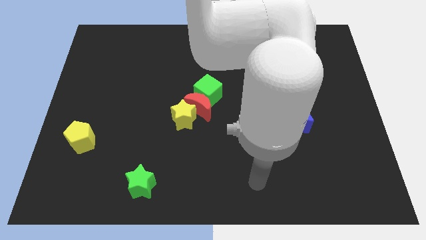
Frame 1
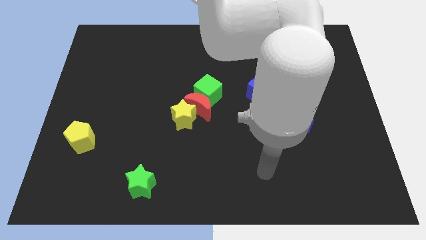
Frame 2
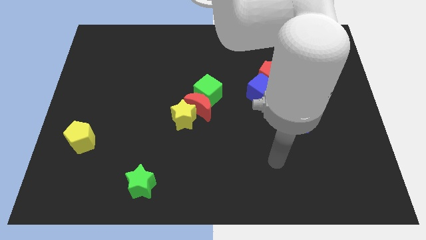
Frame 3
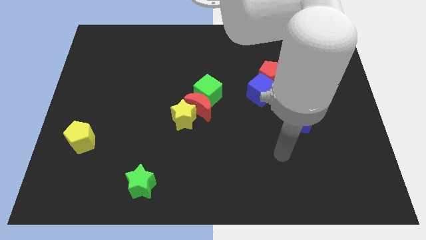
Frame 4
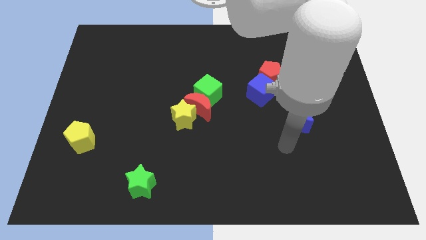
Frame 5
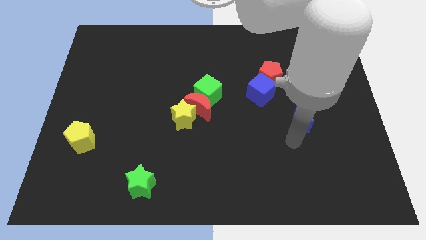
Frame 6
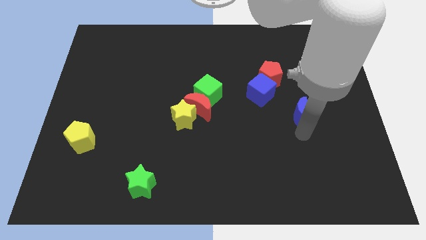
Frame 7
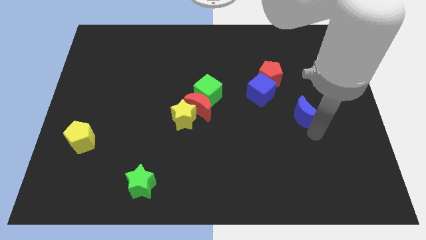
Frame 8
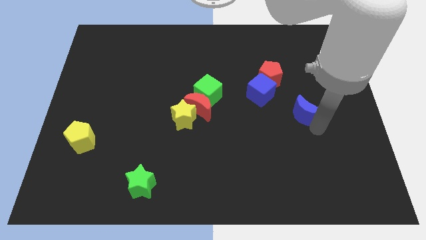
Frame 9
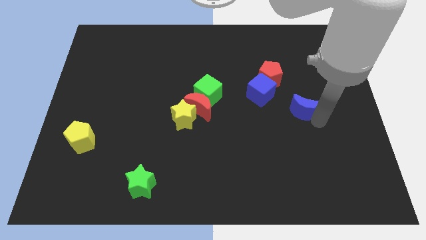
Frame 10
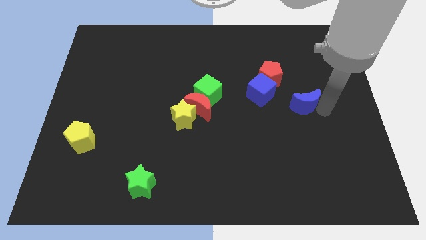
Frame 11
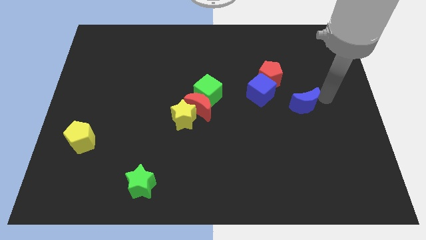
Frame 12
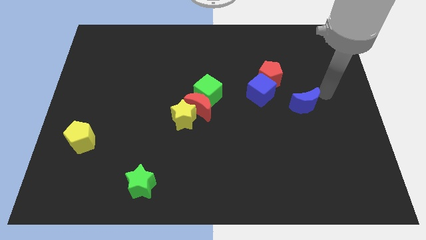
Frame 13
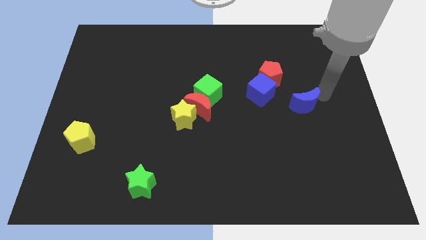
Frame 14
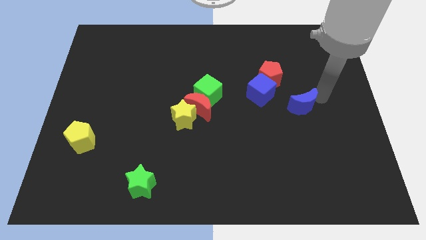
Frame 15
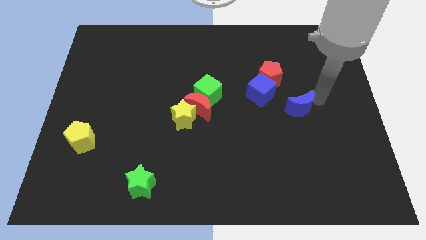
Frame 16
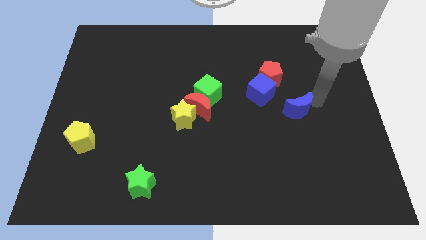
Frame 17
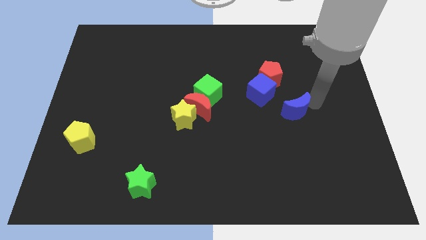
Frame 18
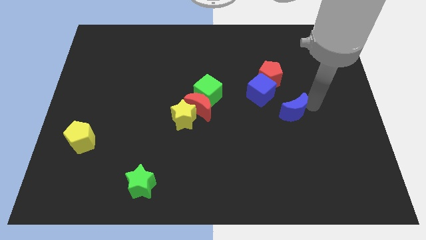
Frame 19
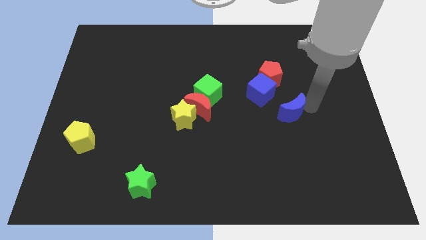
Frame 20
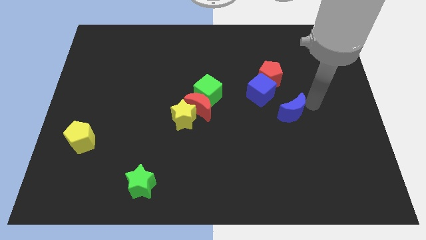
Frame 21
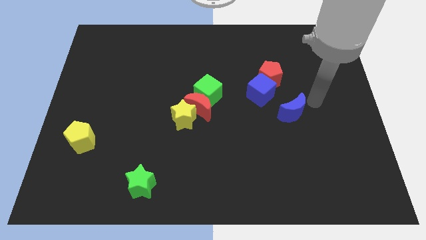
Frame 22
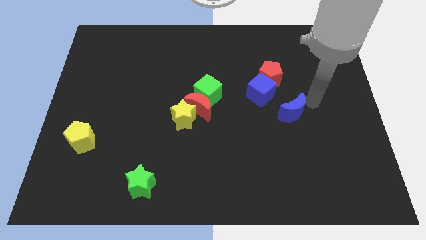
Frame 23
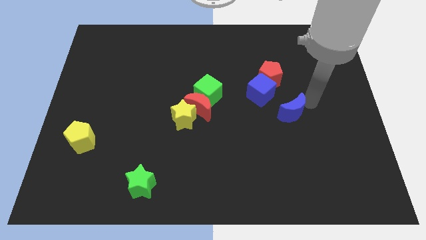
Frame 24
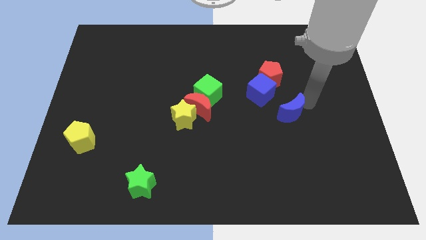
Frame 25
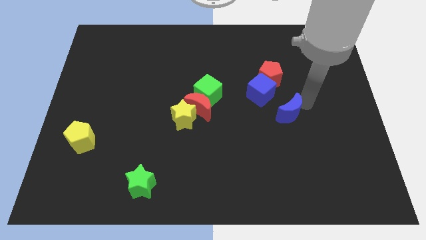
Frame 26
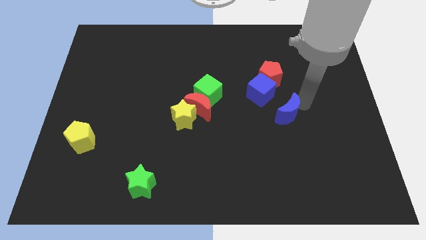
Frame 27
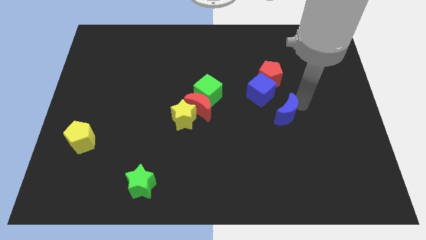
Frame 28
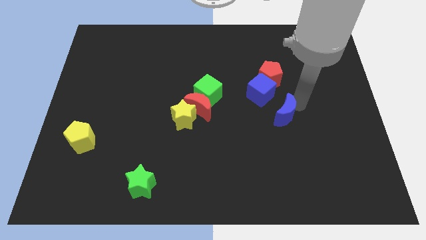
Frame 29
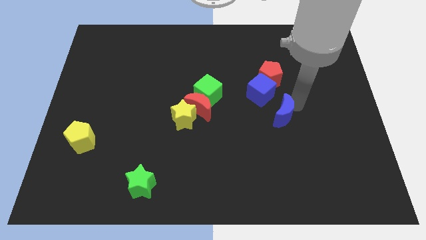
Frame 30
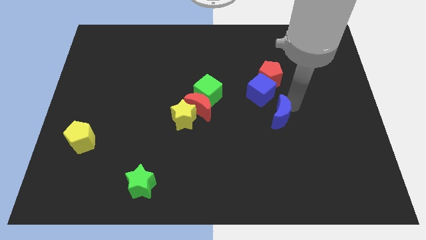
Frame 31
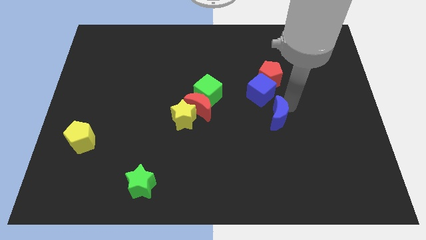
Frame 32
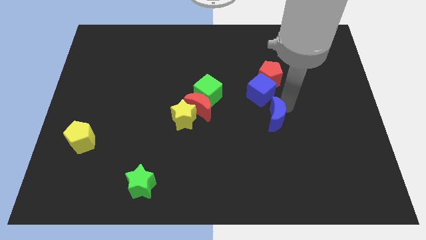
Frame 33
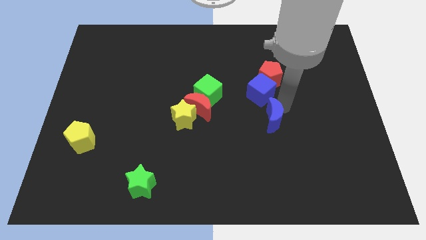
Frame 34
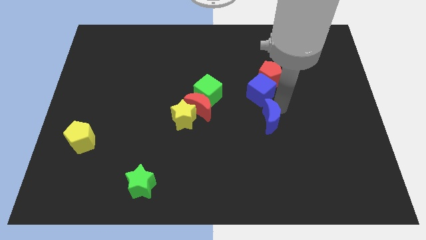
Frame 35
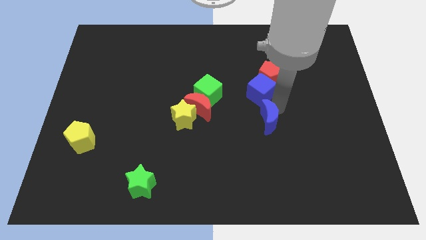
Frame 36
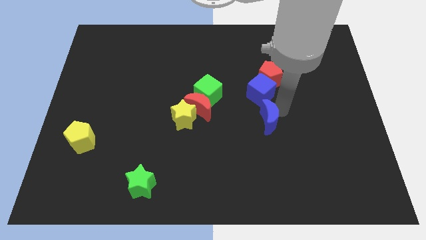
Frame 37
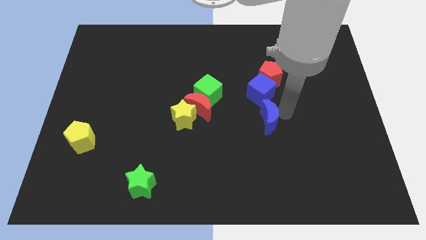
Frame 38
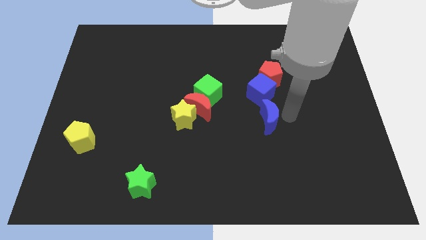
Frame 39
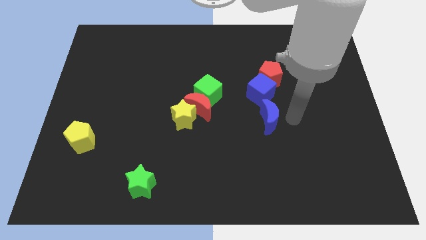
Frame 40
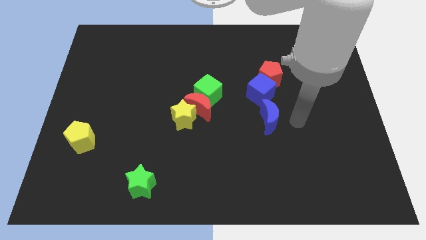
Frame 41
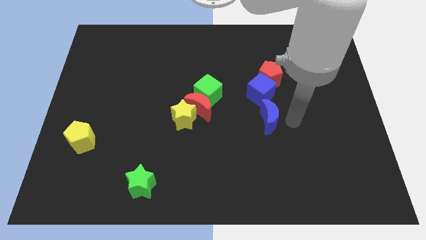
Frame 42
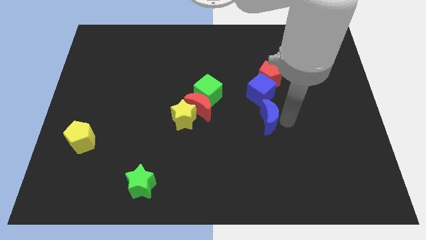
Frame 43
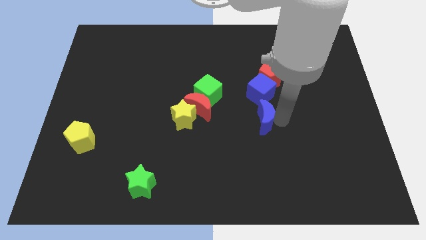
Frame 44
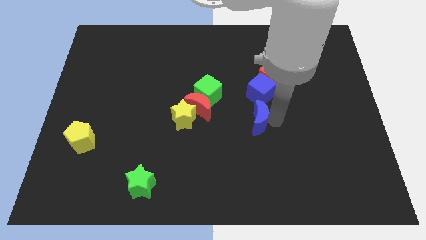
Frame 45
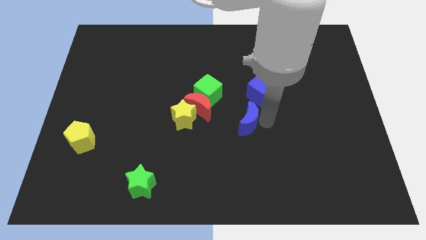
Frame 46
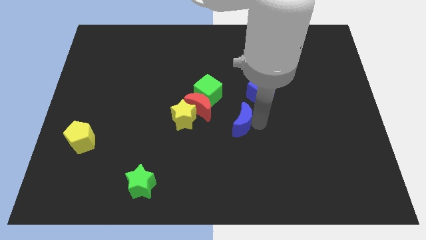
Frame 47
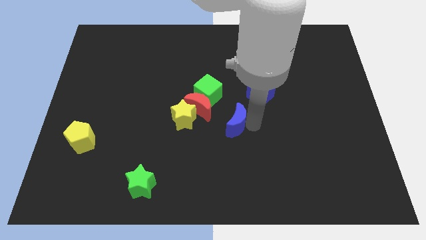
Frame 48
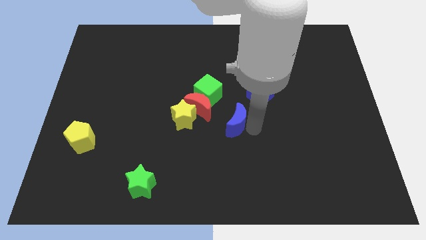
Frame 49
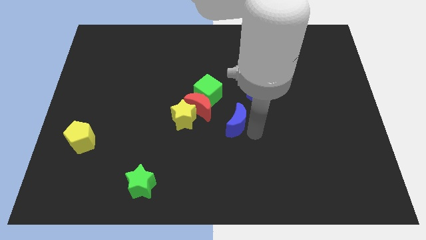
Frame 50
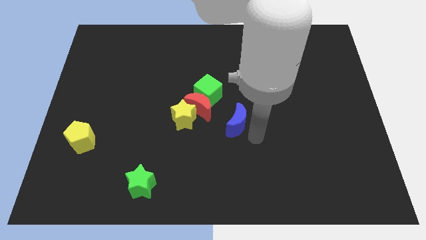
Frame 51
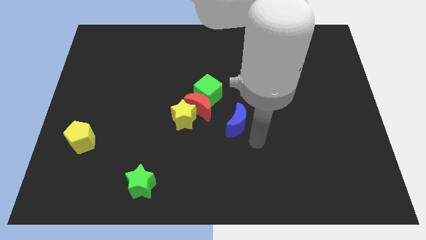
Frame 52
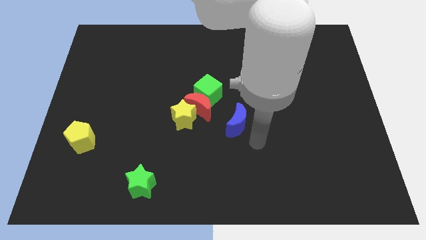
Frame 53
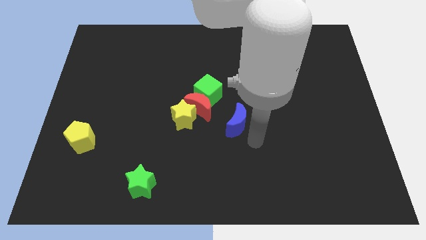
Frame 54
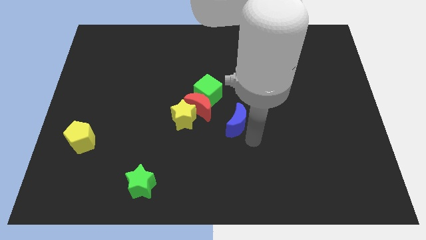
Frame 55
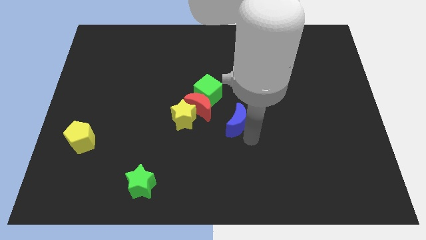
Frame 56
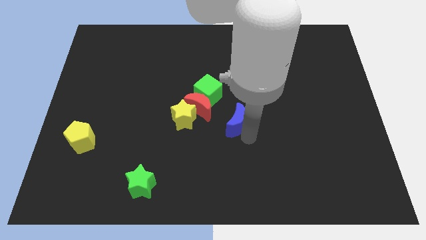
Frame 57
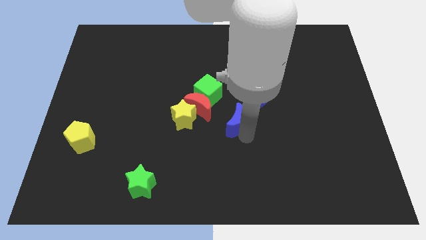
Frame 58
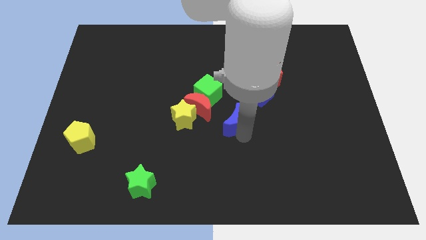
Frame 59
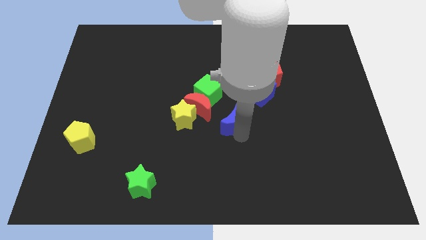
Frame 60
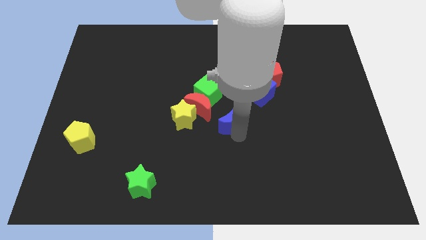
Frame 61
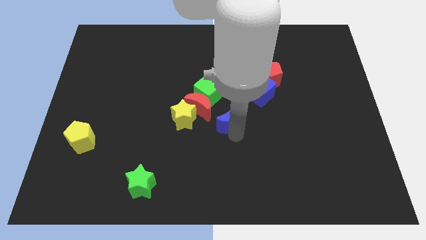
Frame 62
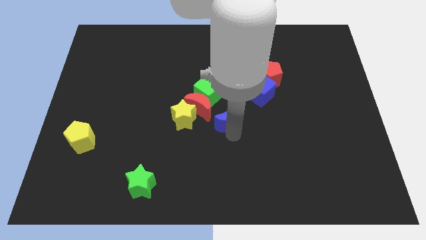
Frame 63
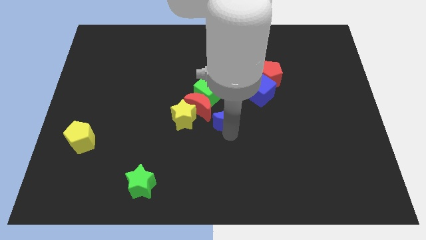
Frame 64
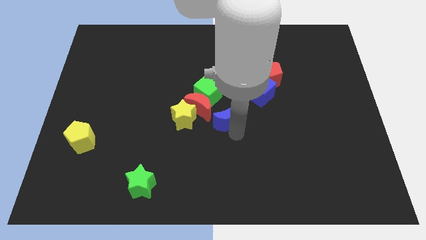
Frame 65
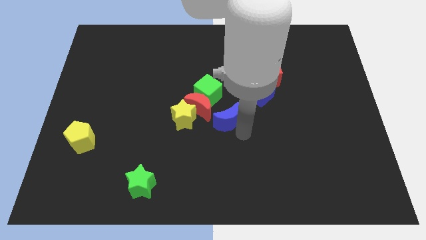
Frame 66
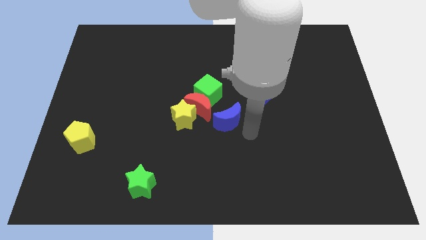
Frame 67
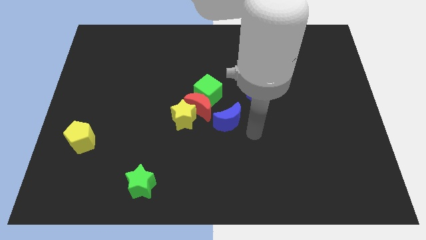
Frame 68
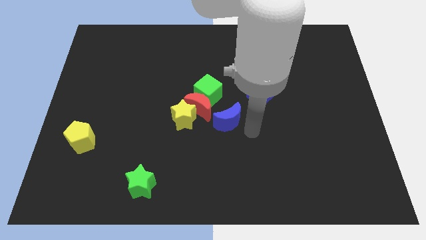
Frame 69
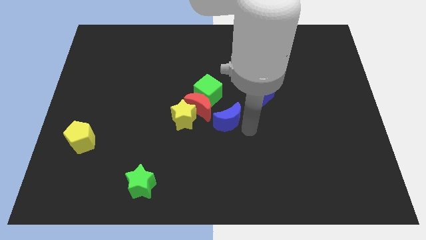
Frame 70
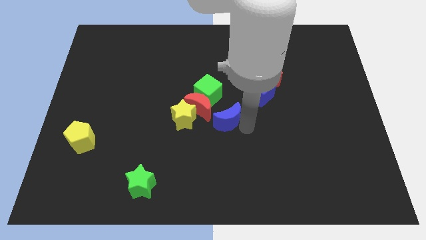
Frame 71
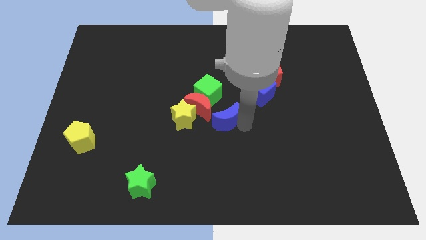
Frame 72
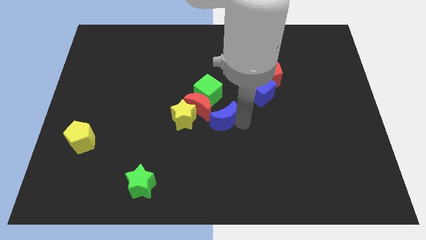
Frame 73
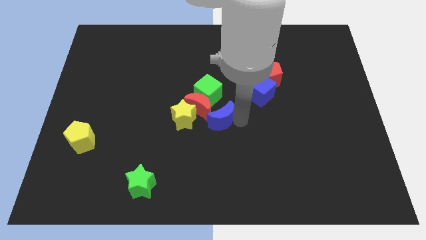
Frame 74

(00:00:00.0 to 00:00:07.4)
push the blue moon to the red moon
